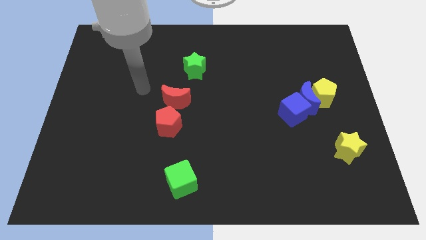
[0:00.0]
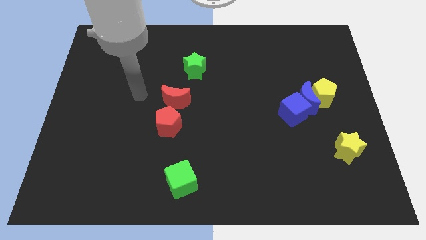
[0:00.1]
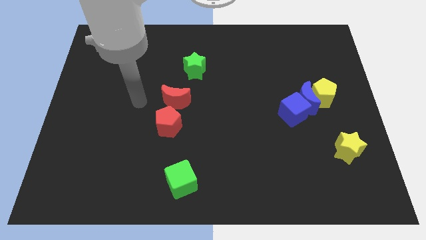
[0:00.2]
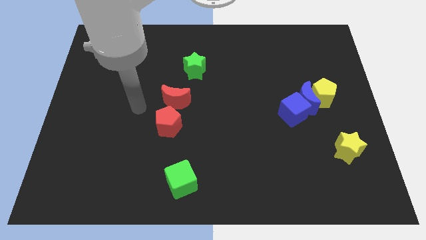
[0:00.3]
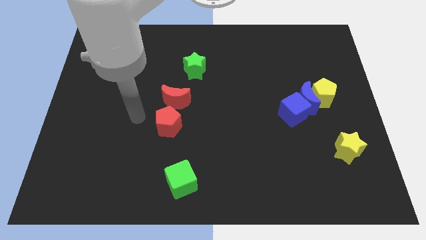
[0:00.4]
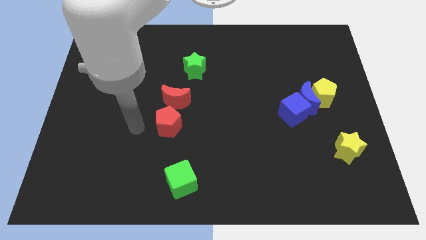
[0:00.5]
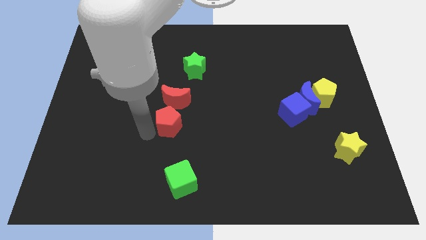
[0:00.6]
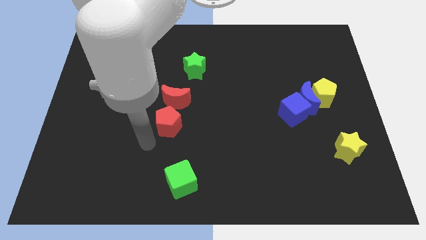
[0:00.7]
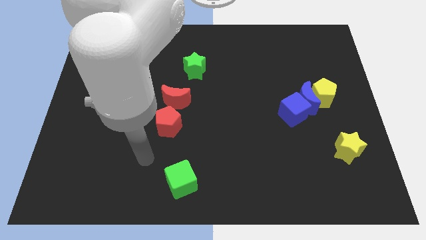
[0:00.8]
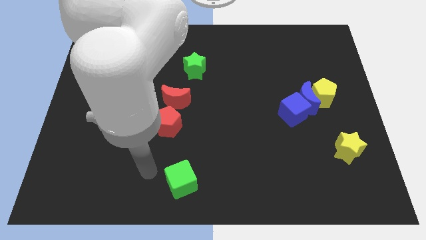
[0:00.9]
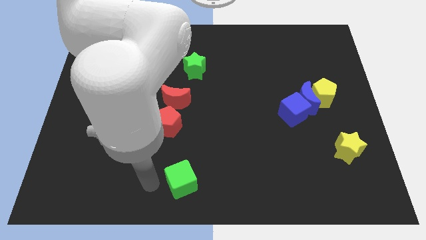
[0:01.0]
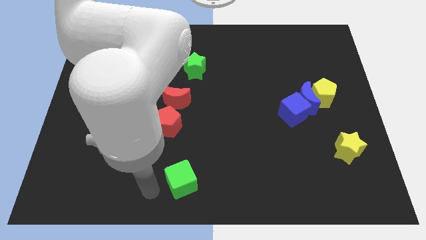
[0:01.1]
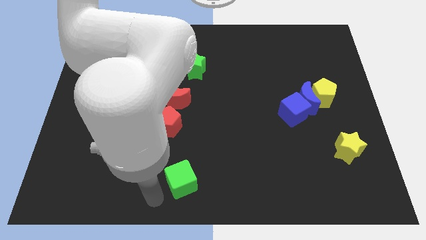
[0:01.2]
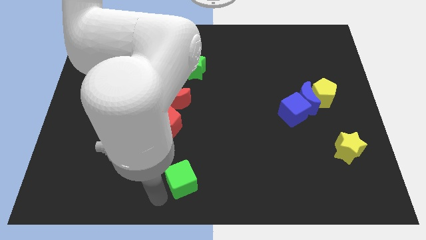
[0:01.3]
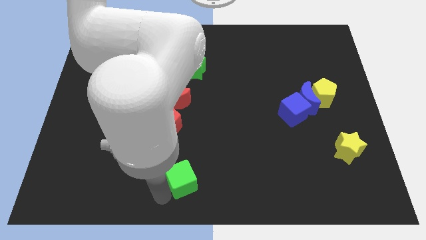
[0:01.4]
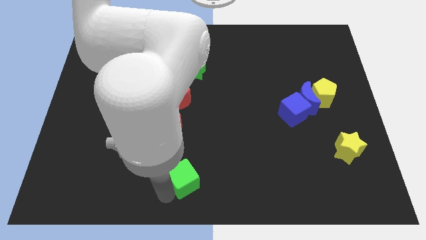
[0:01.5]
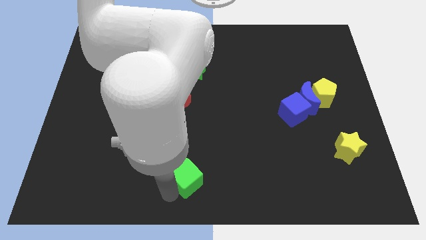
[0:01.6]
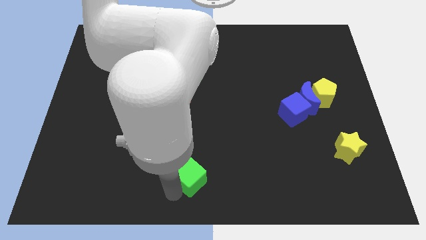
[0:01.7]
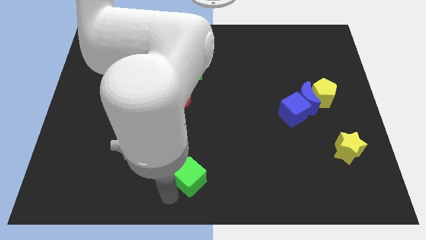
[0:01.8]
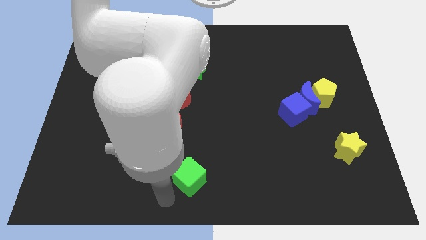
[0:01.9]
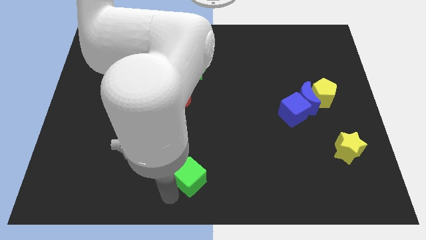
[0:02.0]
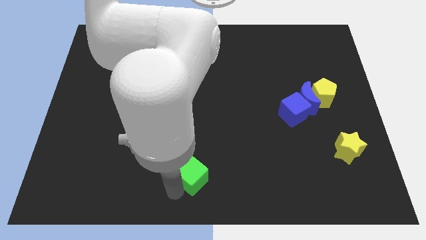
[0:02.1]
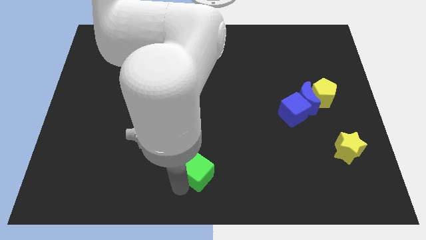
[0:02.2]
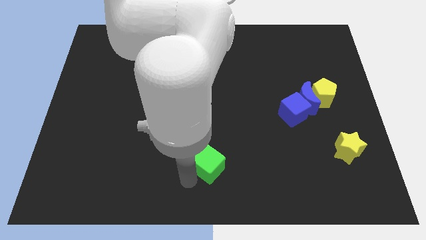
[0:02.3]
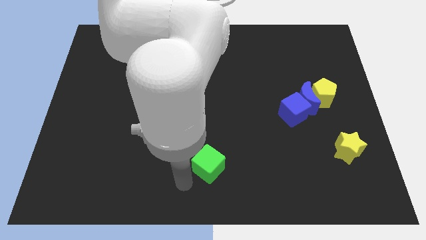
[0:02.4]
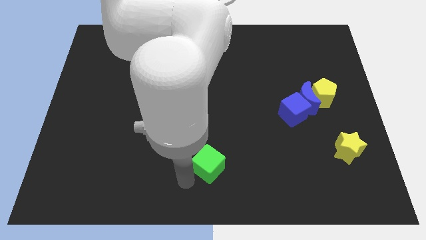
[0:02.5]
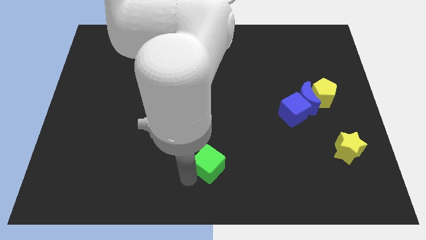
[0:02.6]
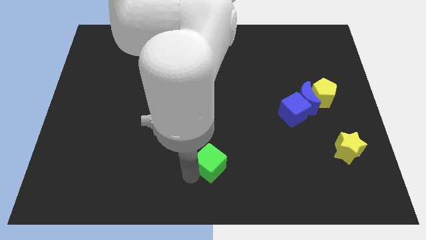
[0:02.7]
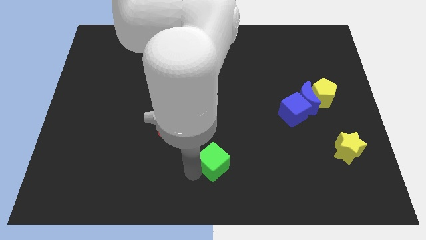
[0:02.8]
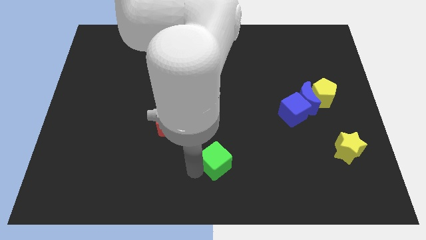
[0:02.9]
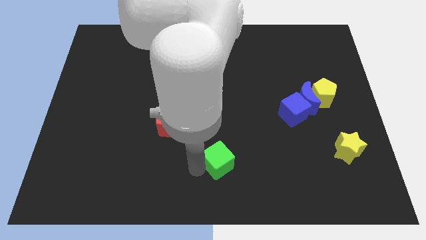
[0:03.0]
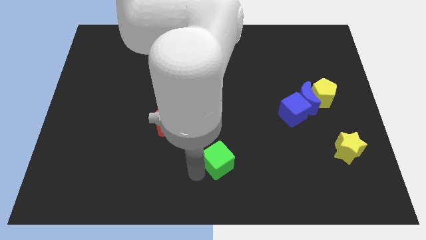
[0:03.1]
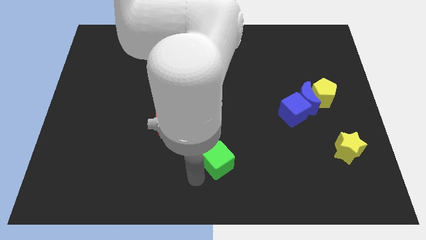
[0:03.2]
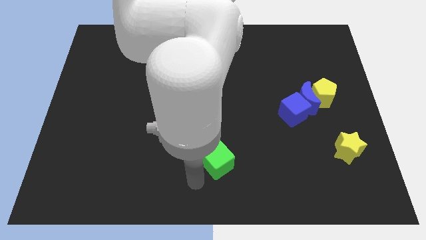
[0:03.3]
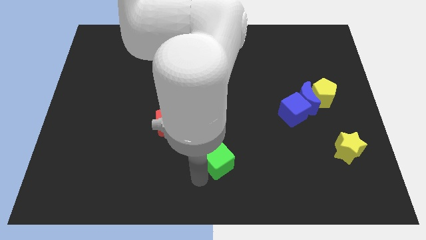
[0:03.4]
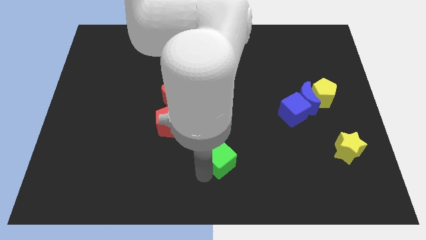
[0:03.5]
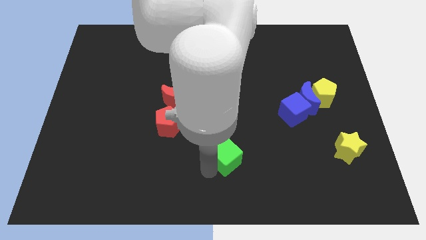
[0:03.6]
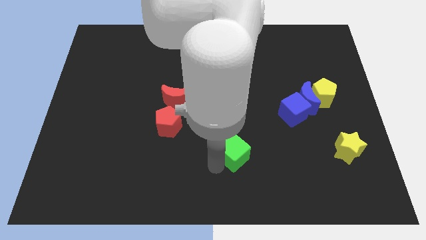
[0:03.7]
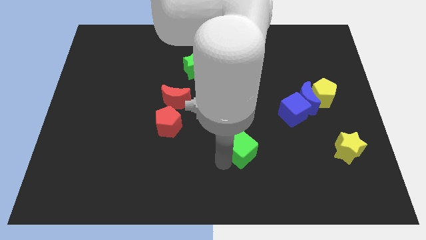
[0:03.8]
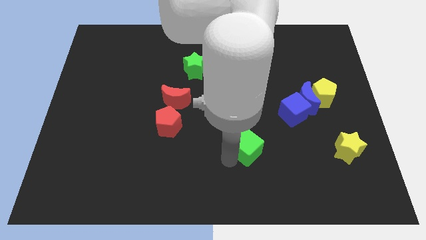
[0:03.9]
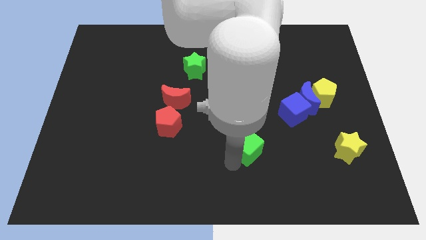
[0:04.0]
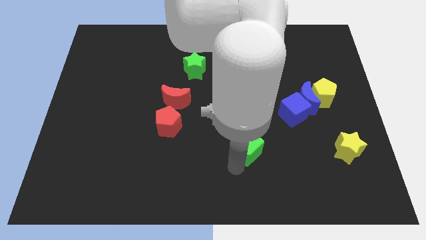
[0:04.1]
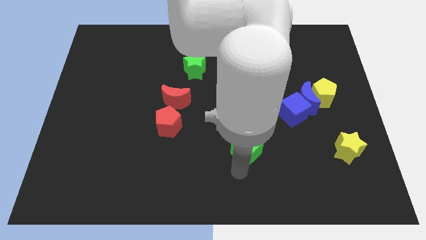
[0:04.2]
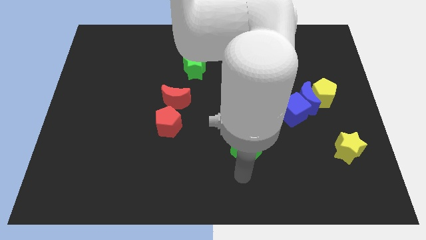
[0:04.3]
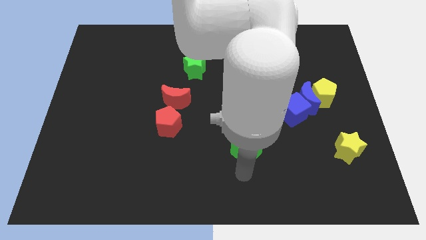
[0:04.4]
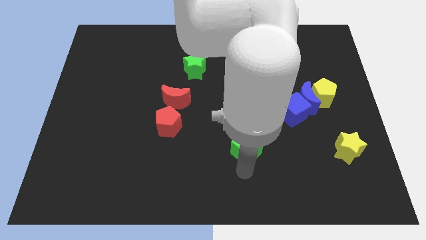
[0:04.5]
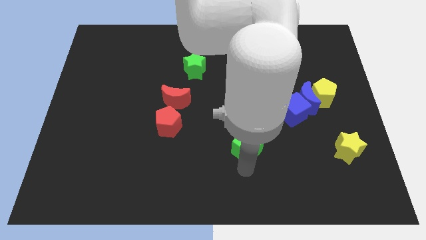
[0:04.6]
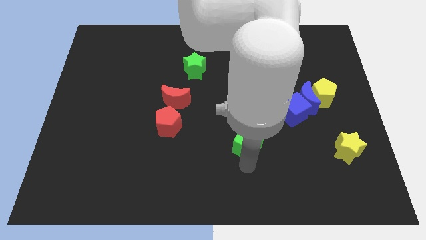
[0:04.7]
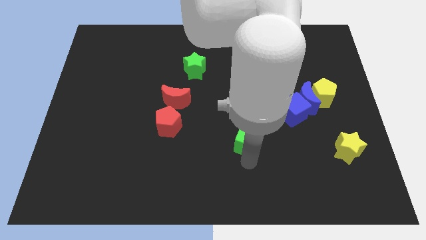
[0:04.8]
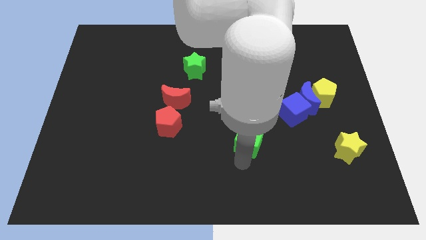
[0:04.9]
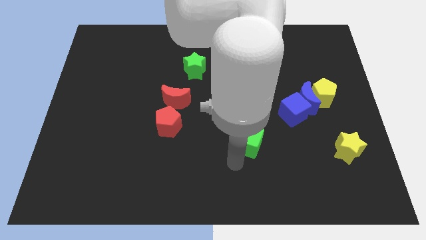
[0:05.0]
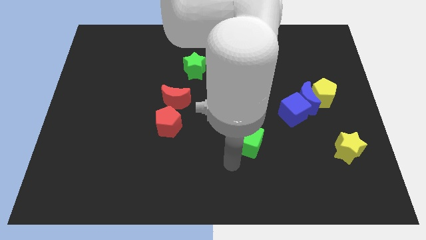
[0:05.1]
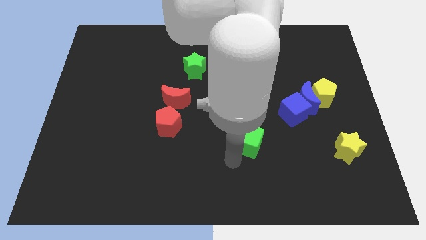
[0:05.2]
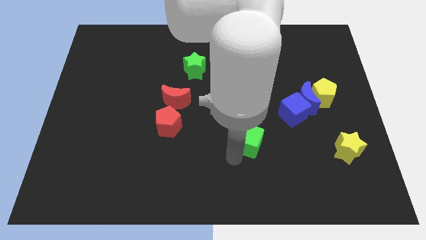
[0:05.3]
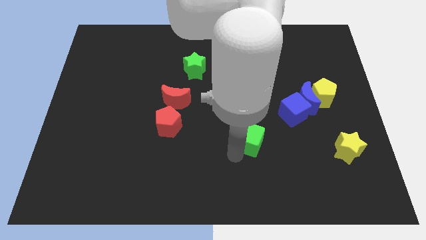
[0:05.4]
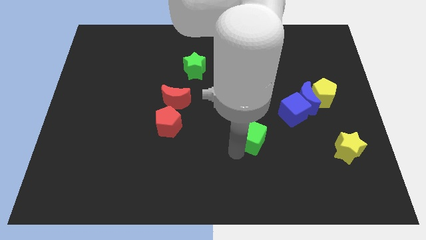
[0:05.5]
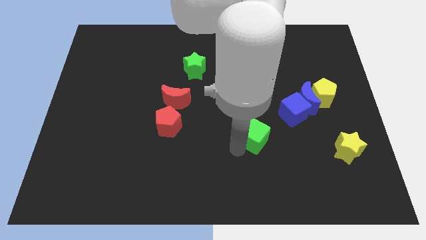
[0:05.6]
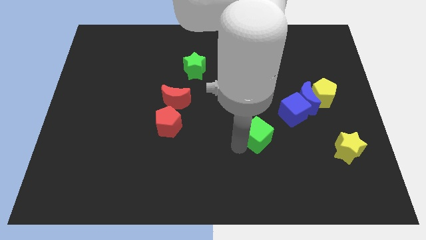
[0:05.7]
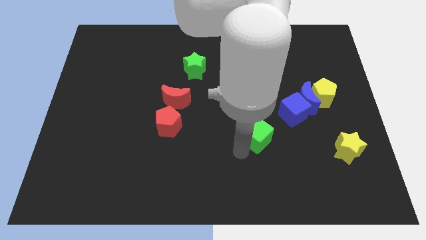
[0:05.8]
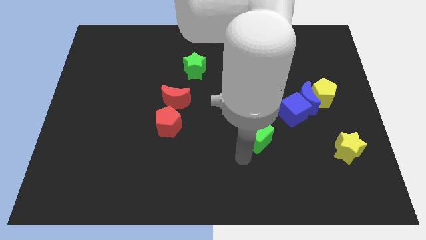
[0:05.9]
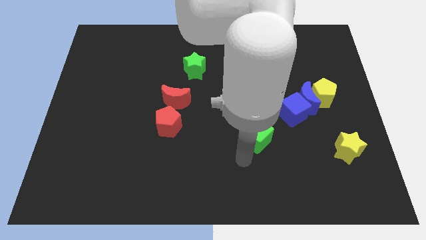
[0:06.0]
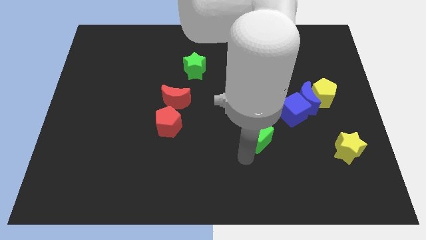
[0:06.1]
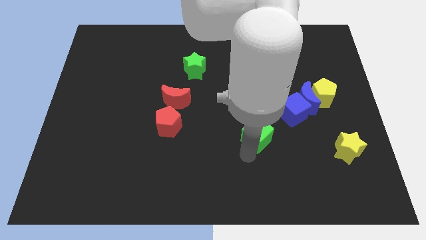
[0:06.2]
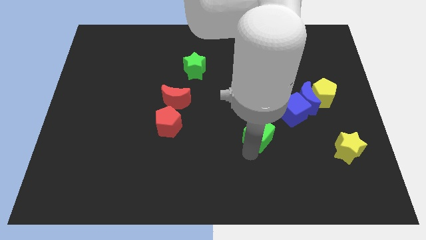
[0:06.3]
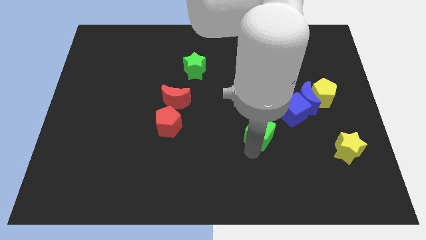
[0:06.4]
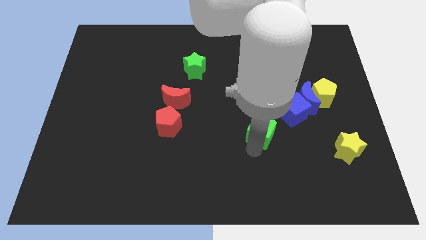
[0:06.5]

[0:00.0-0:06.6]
move the green cube up and then right

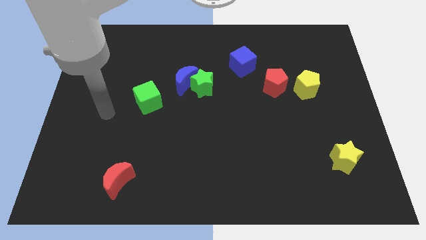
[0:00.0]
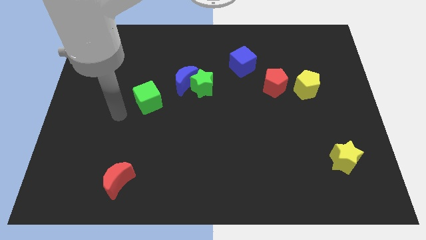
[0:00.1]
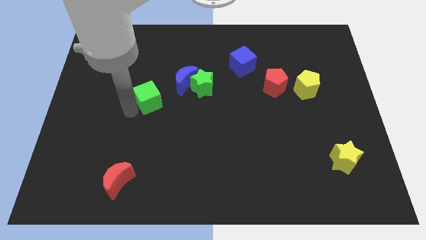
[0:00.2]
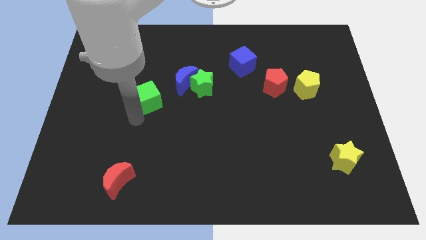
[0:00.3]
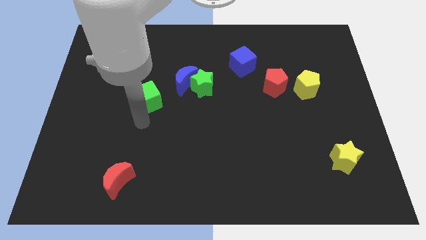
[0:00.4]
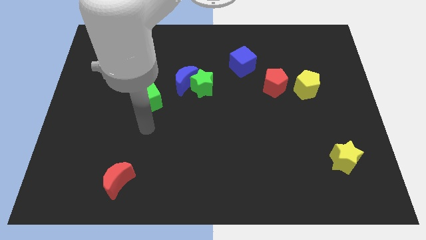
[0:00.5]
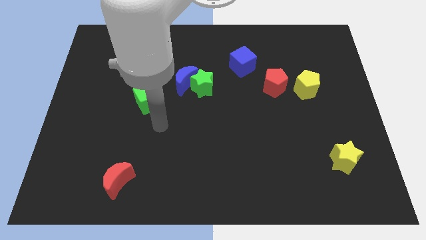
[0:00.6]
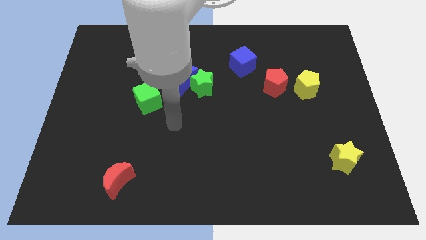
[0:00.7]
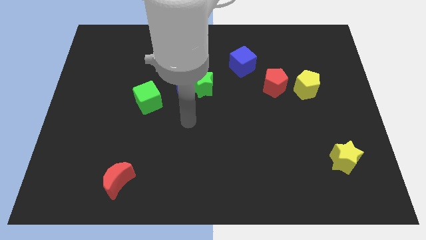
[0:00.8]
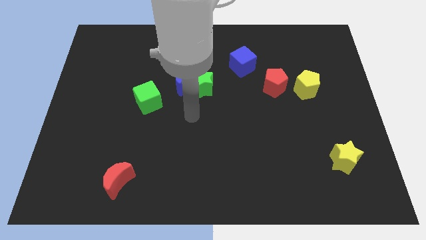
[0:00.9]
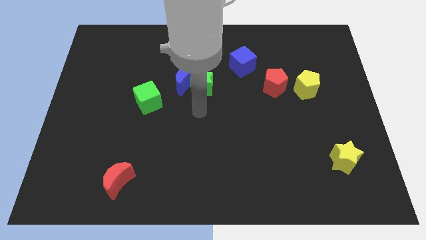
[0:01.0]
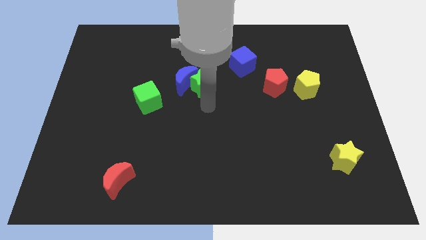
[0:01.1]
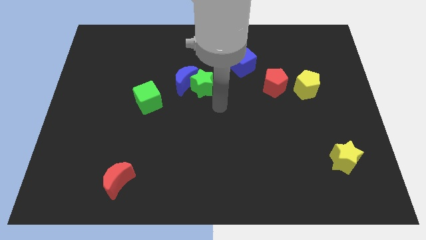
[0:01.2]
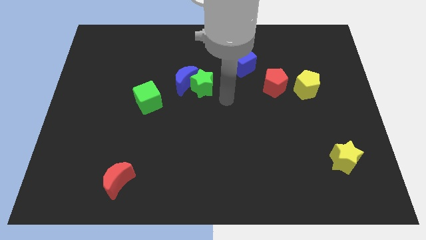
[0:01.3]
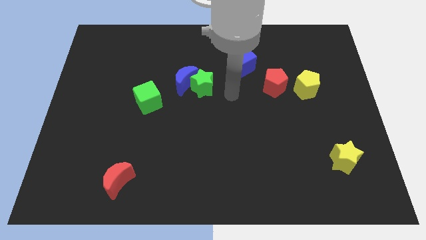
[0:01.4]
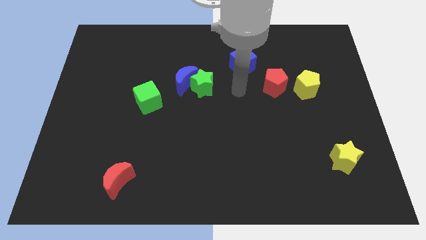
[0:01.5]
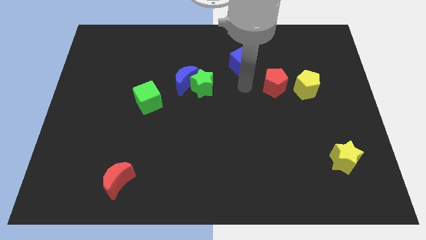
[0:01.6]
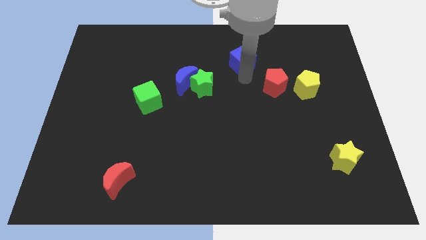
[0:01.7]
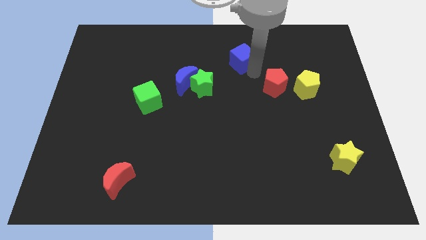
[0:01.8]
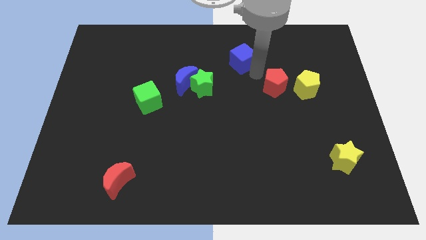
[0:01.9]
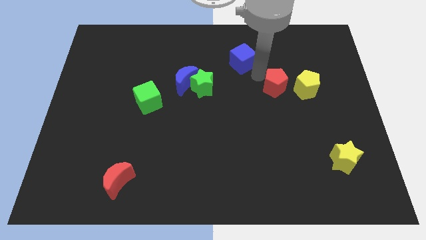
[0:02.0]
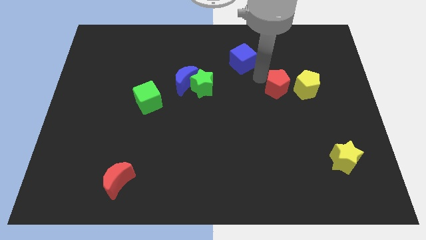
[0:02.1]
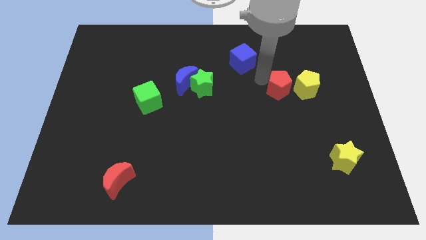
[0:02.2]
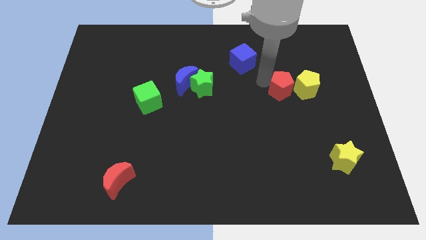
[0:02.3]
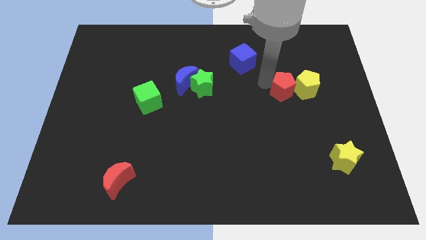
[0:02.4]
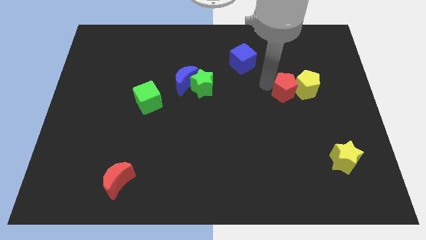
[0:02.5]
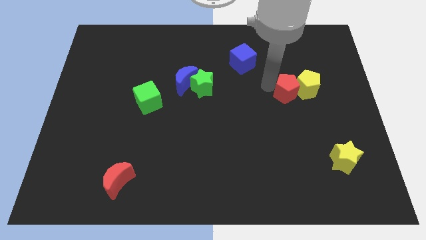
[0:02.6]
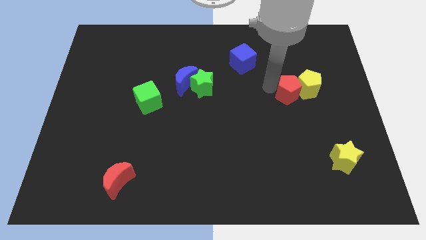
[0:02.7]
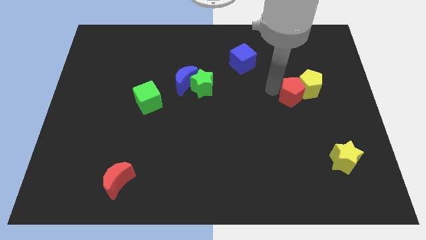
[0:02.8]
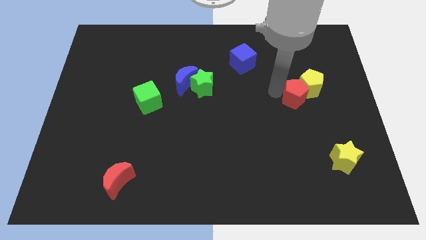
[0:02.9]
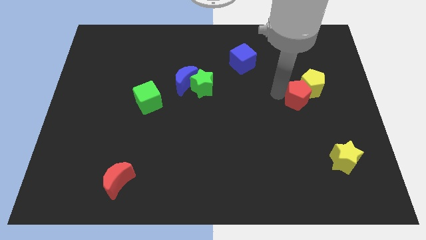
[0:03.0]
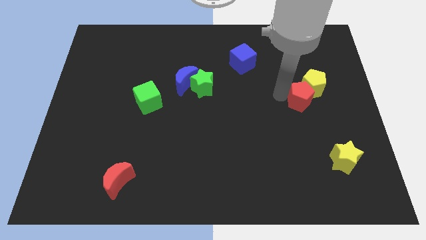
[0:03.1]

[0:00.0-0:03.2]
push the red pentagon down and to the right a little bit
